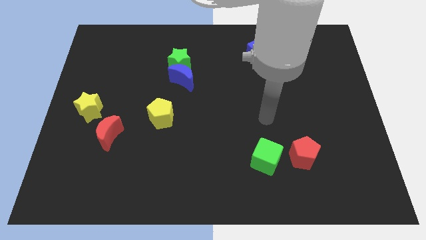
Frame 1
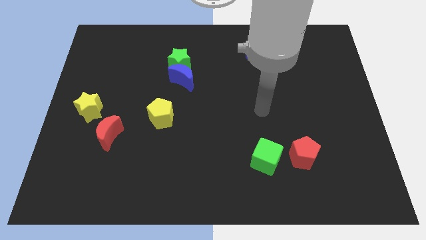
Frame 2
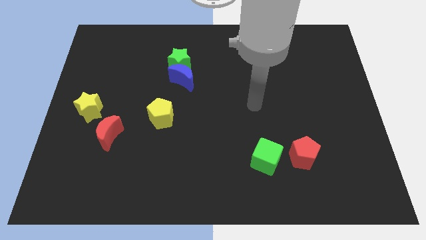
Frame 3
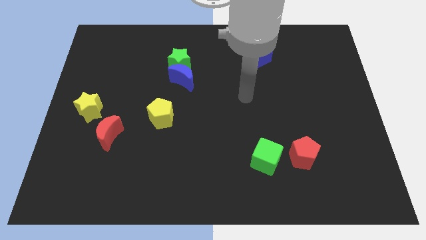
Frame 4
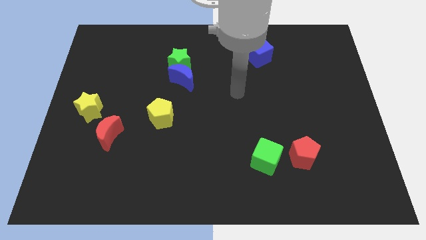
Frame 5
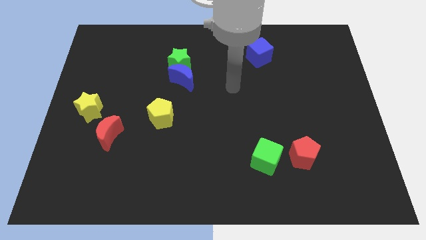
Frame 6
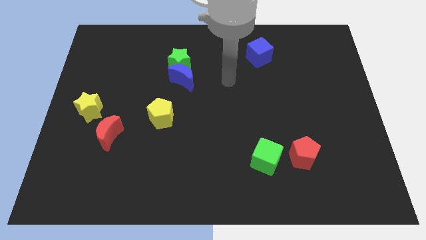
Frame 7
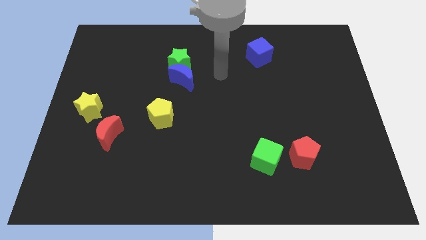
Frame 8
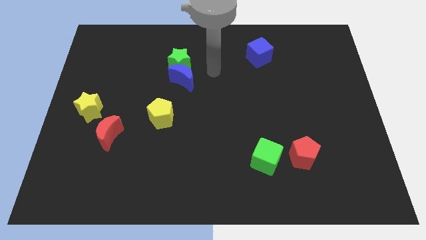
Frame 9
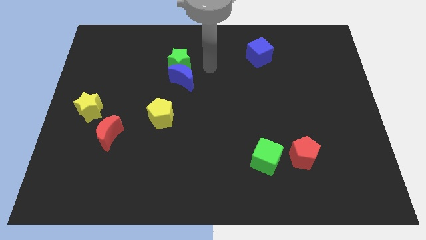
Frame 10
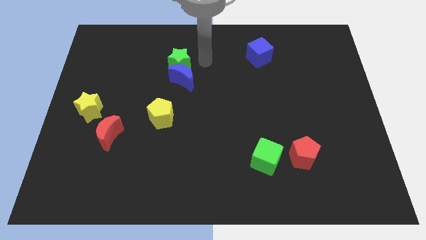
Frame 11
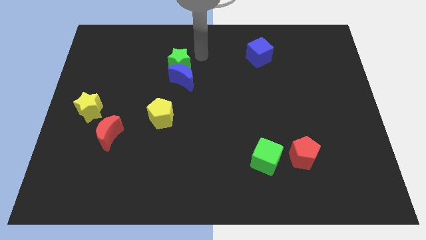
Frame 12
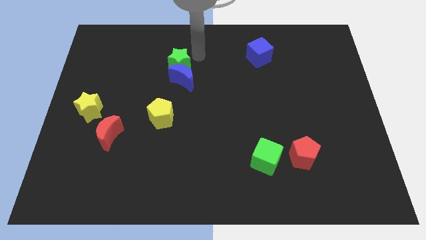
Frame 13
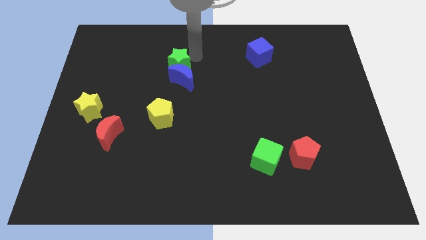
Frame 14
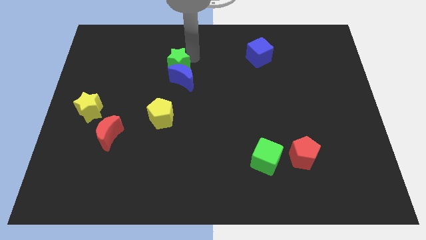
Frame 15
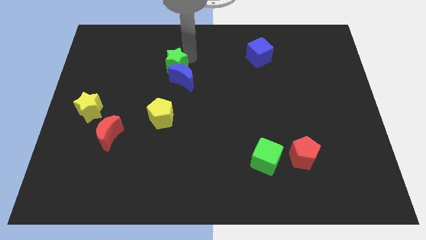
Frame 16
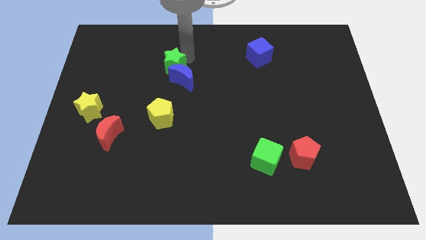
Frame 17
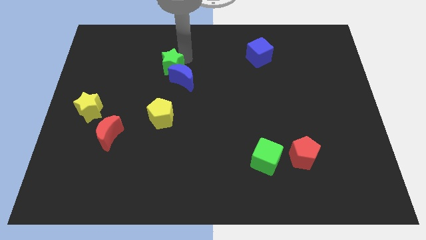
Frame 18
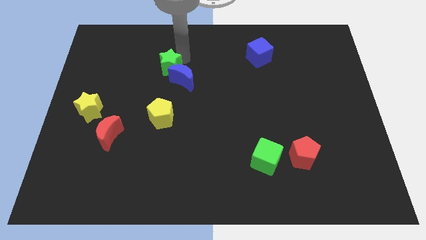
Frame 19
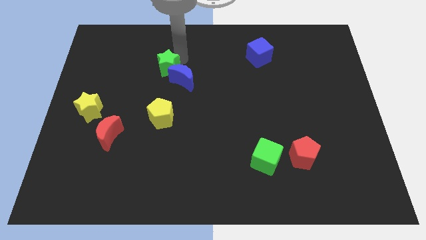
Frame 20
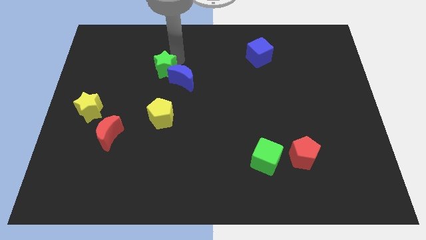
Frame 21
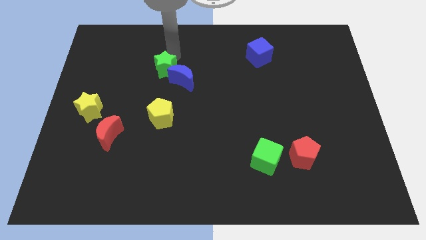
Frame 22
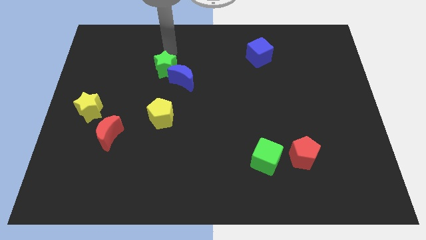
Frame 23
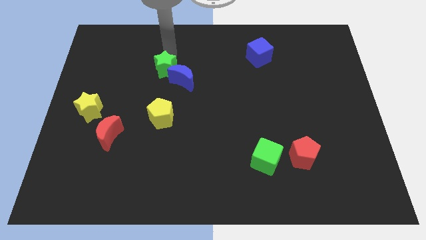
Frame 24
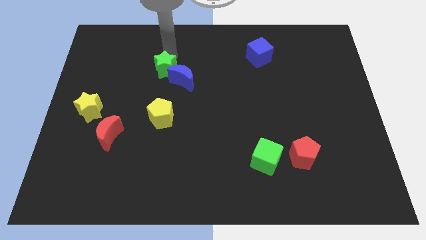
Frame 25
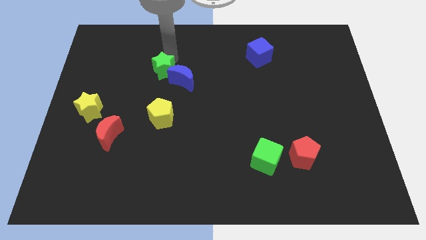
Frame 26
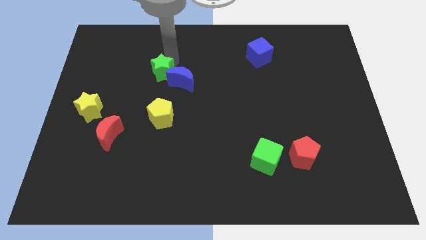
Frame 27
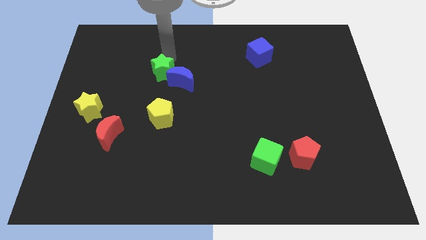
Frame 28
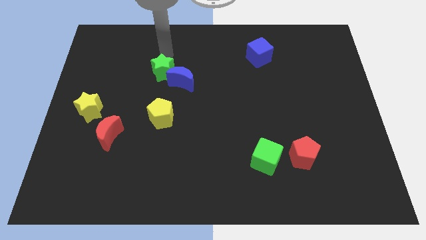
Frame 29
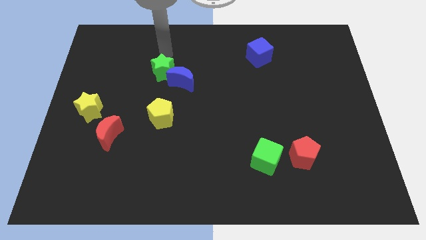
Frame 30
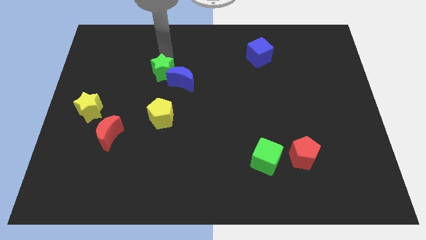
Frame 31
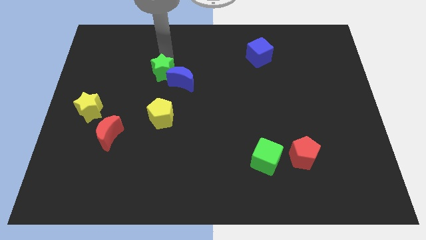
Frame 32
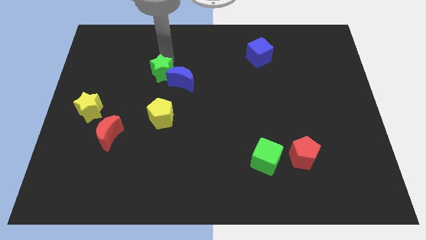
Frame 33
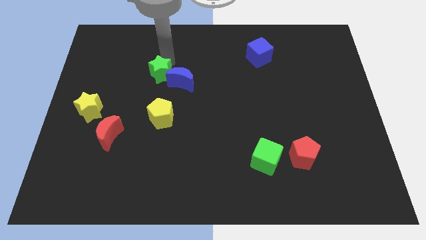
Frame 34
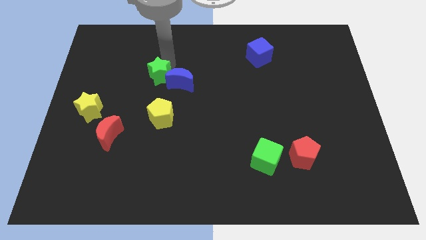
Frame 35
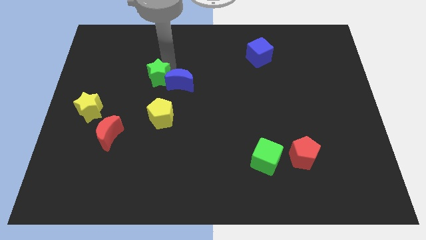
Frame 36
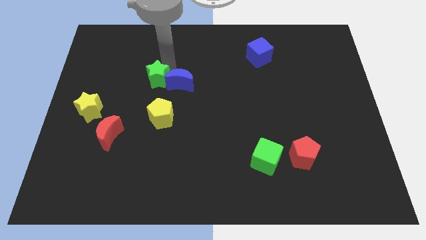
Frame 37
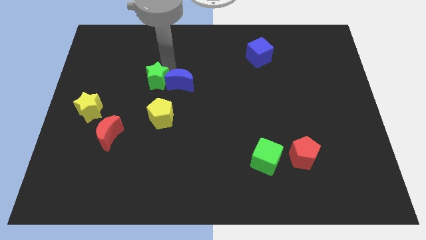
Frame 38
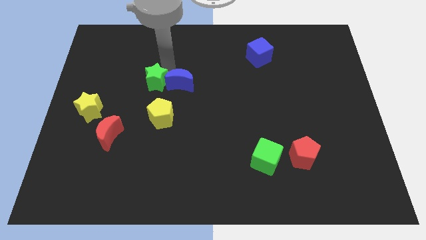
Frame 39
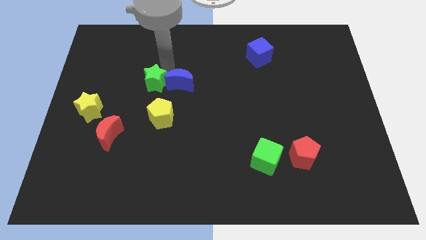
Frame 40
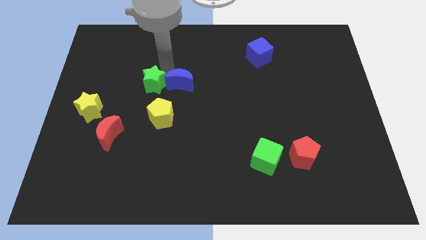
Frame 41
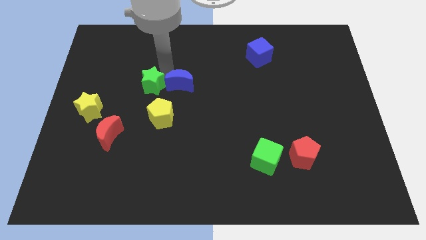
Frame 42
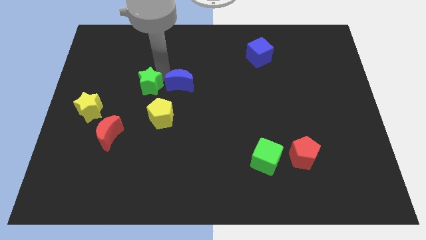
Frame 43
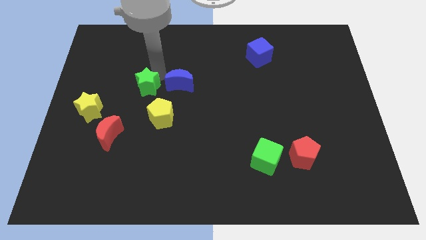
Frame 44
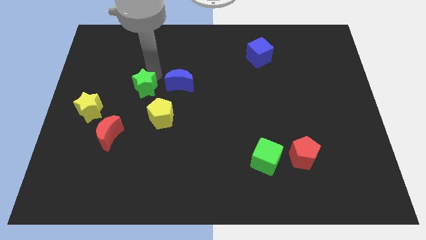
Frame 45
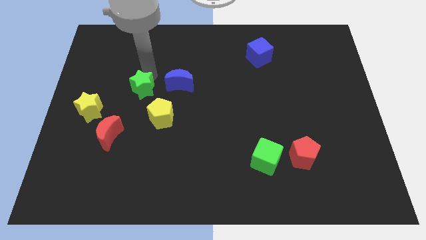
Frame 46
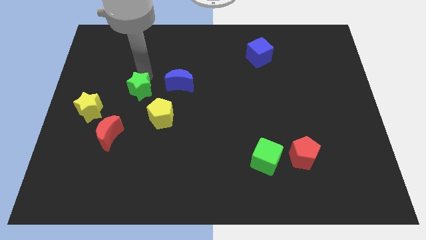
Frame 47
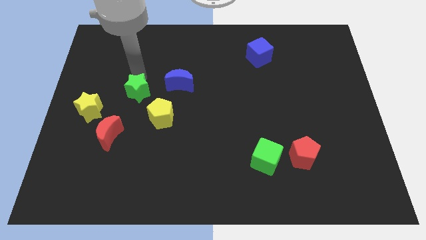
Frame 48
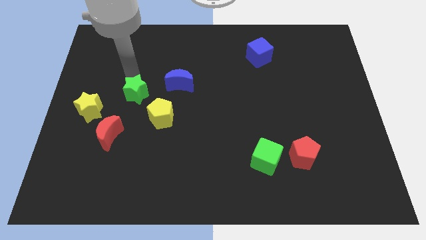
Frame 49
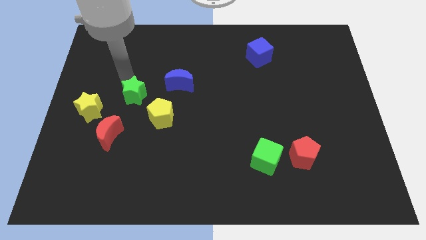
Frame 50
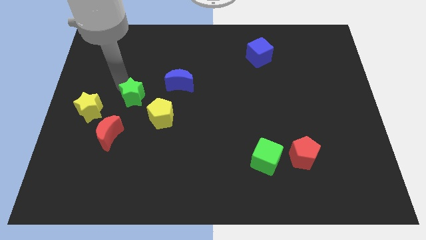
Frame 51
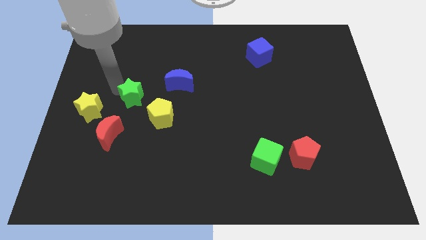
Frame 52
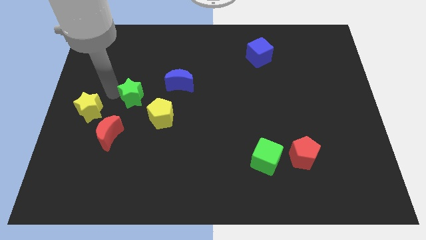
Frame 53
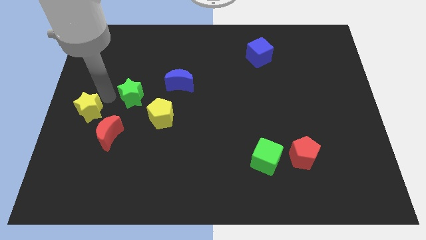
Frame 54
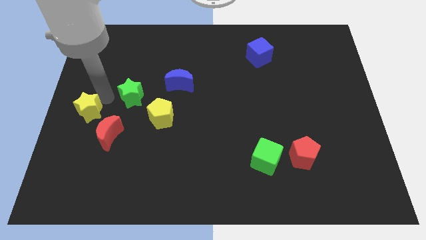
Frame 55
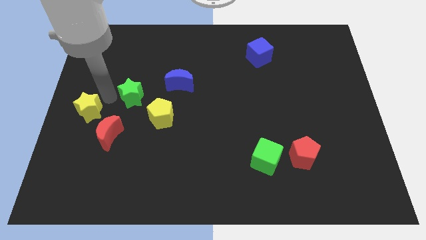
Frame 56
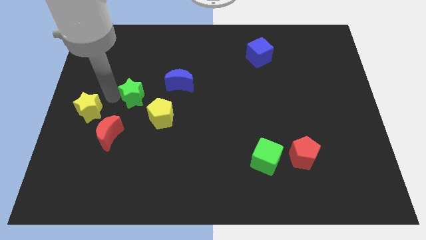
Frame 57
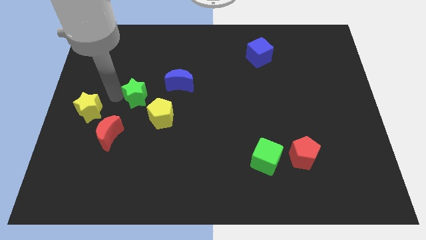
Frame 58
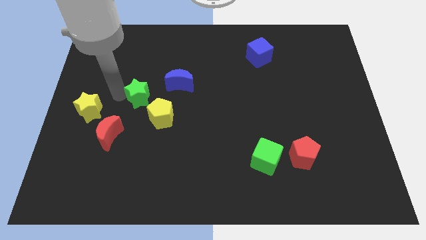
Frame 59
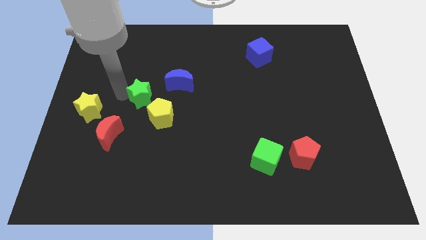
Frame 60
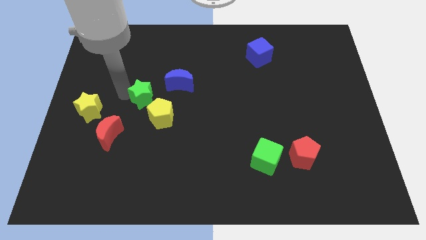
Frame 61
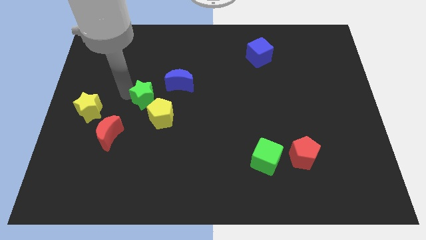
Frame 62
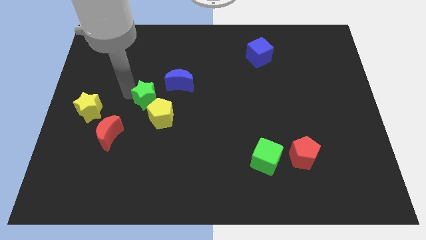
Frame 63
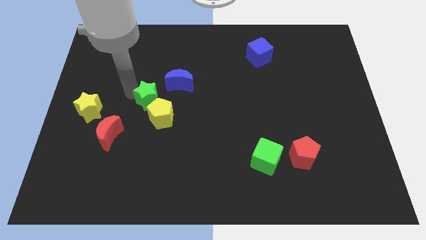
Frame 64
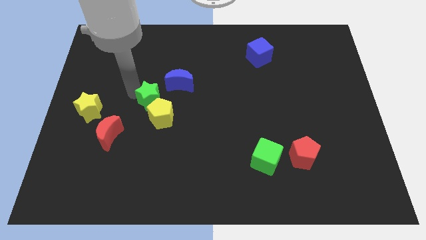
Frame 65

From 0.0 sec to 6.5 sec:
slide the green star towards the yellow pentagon
